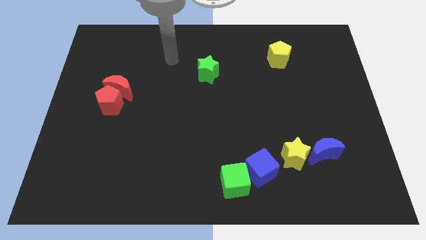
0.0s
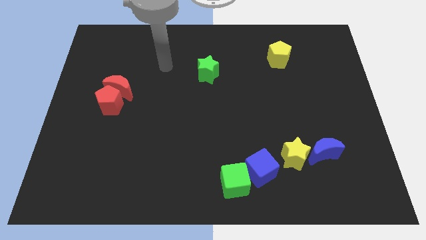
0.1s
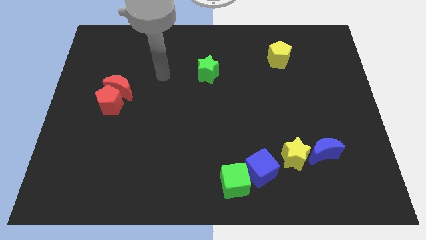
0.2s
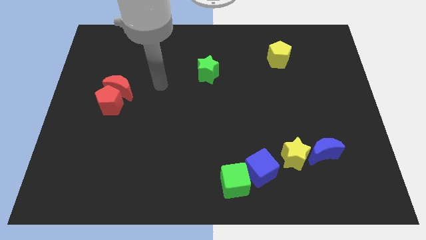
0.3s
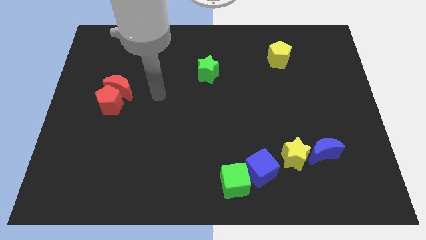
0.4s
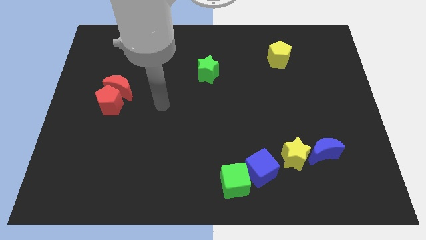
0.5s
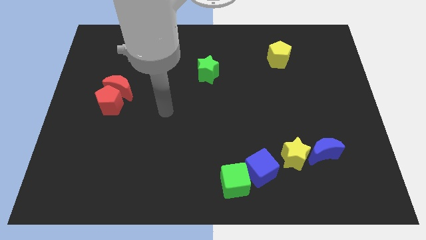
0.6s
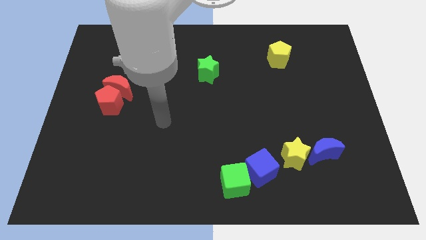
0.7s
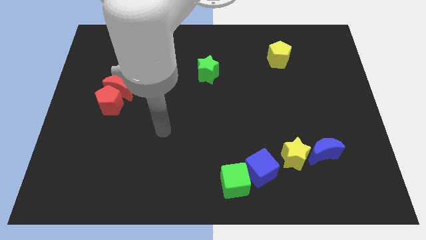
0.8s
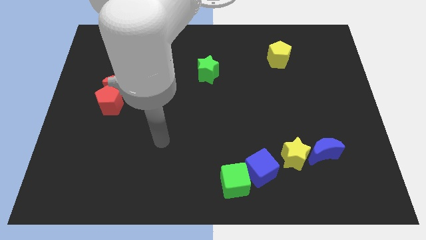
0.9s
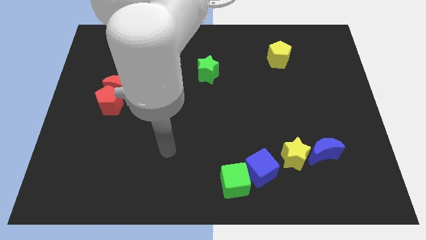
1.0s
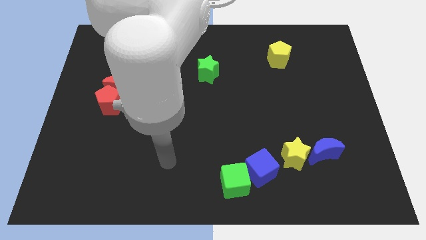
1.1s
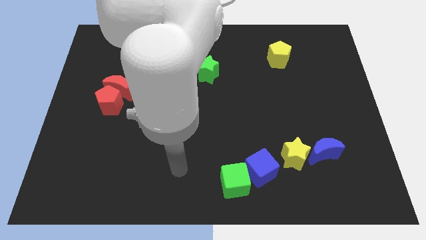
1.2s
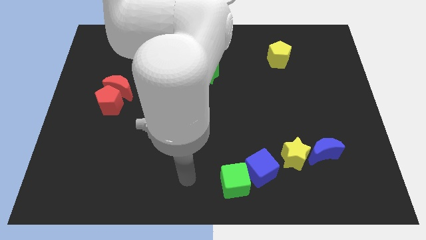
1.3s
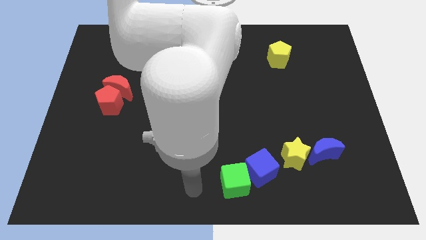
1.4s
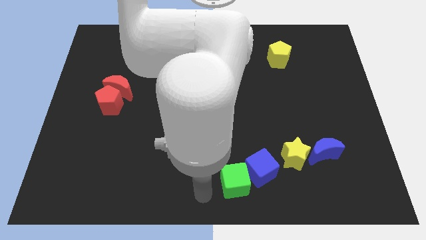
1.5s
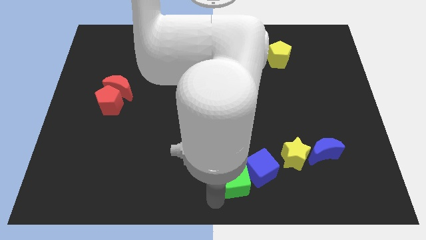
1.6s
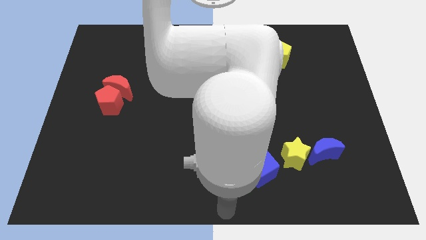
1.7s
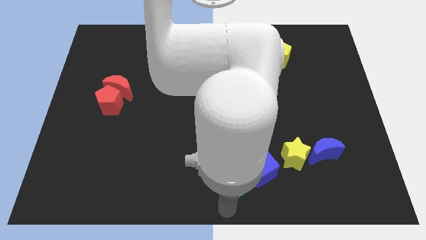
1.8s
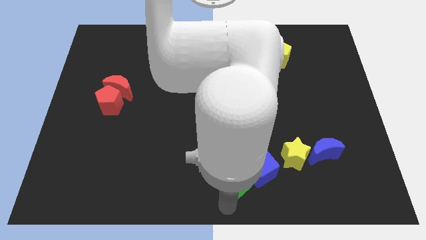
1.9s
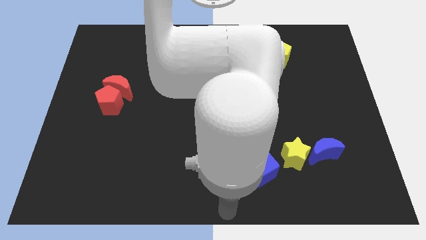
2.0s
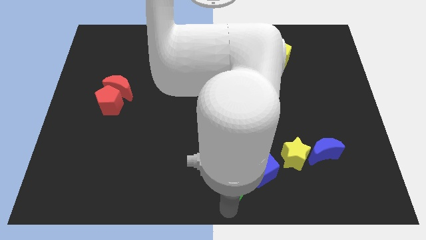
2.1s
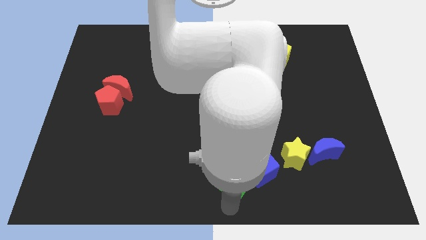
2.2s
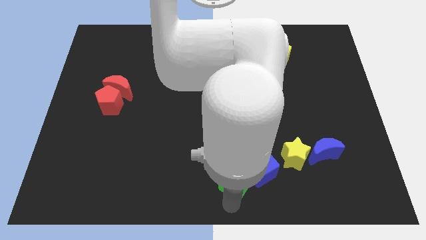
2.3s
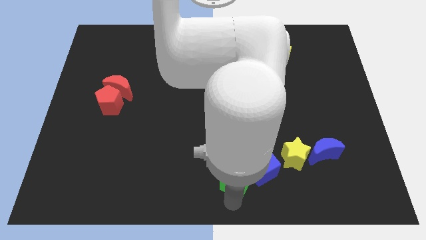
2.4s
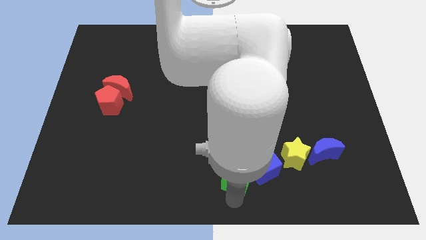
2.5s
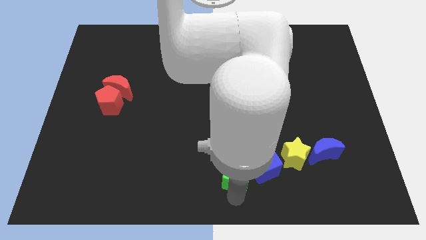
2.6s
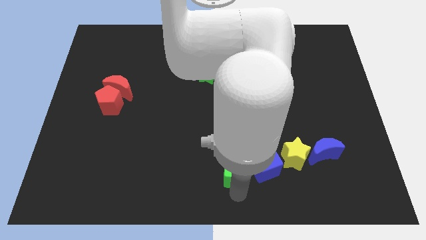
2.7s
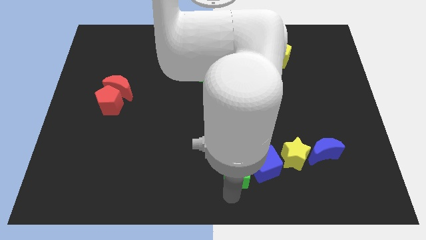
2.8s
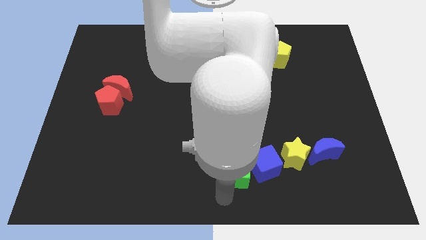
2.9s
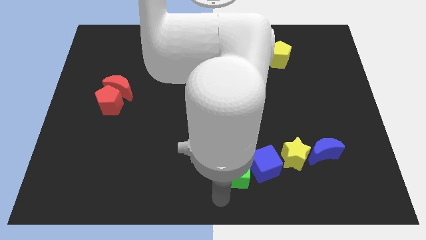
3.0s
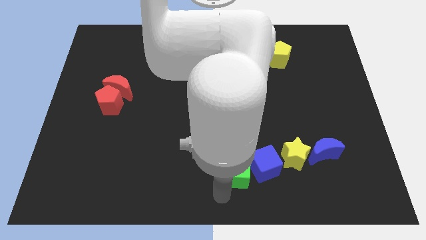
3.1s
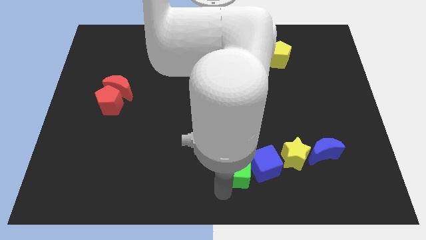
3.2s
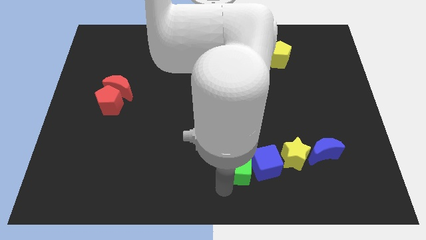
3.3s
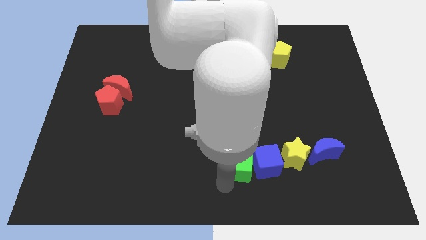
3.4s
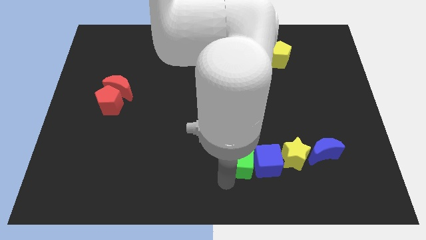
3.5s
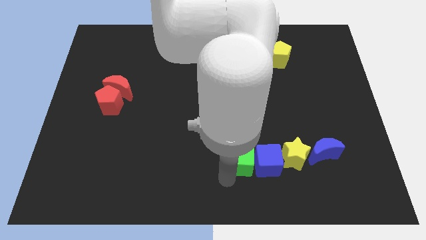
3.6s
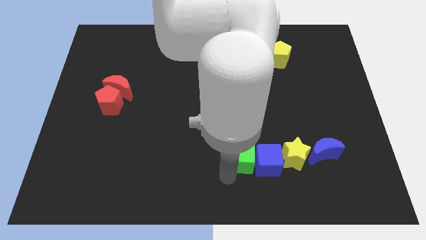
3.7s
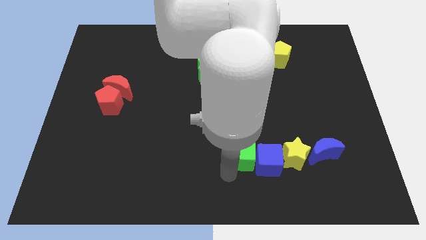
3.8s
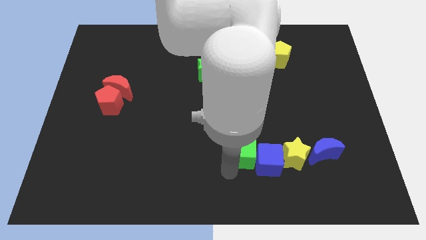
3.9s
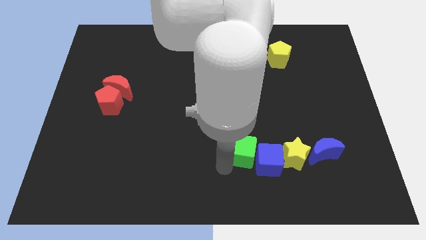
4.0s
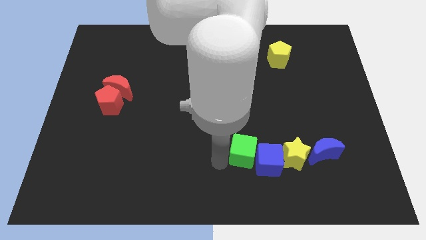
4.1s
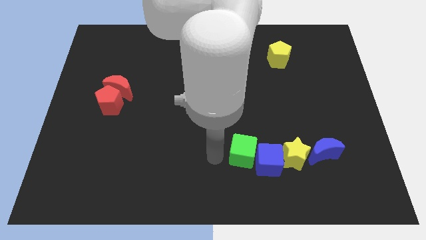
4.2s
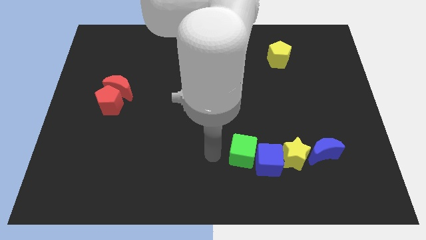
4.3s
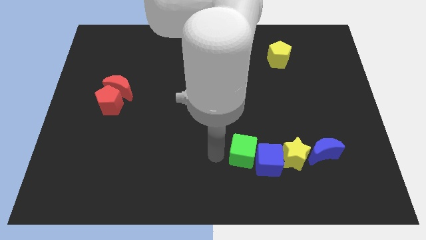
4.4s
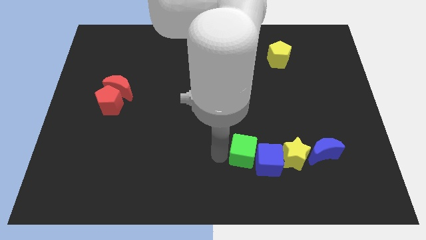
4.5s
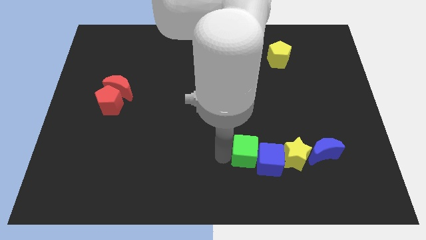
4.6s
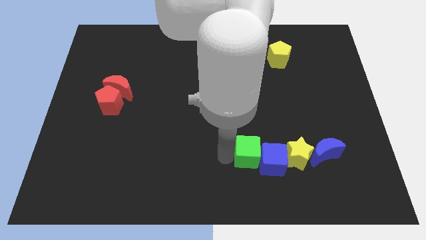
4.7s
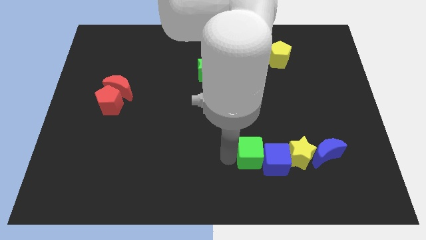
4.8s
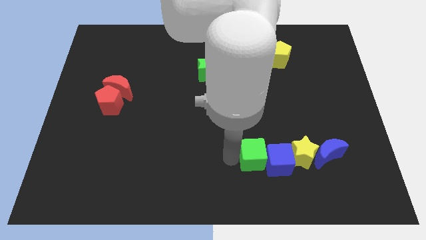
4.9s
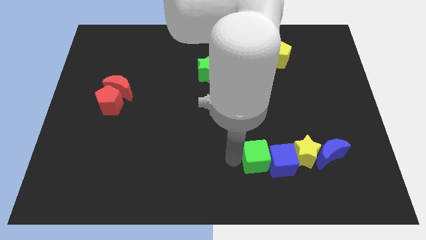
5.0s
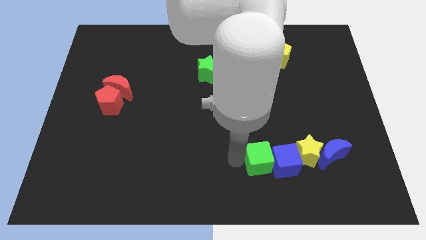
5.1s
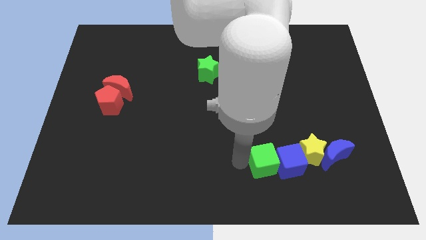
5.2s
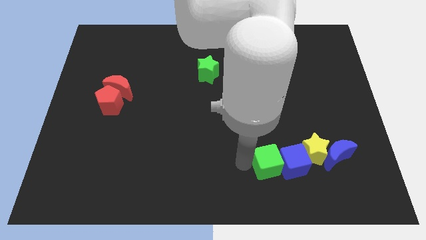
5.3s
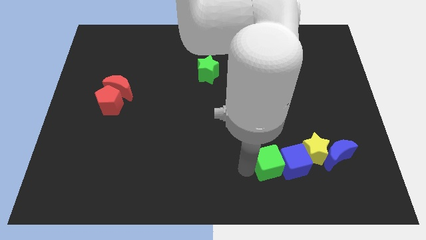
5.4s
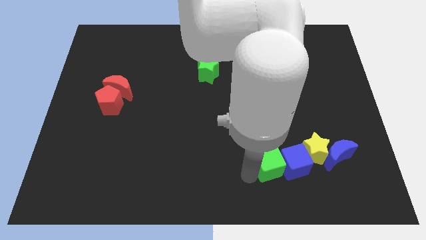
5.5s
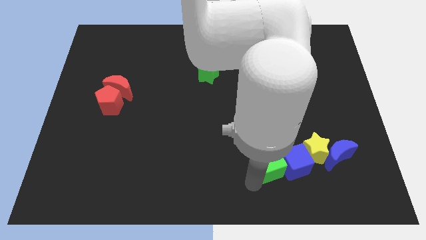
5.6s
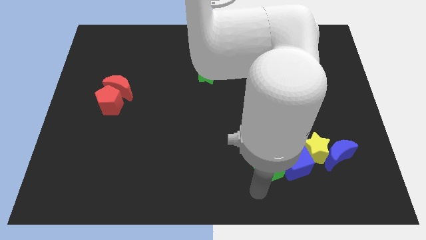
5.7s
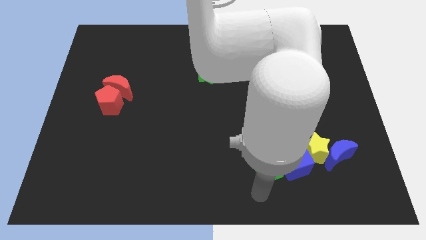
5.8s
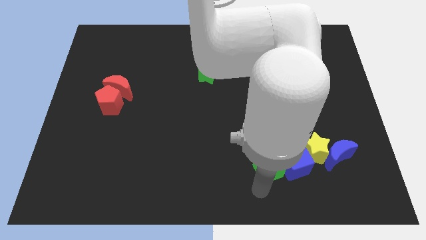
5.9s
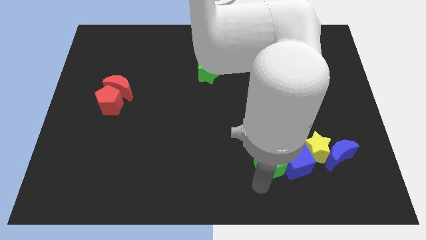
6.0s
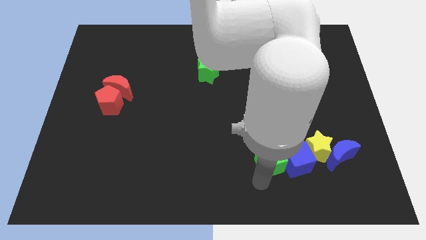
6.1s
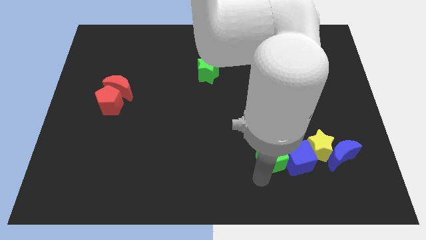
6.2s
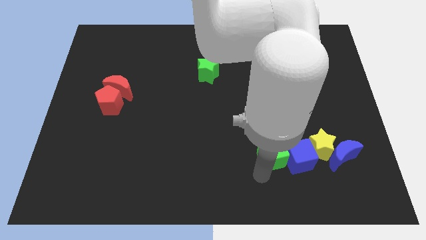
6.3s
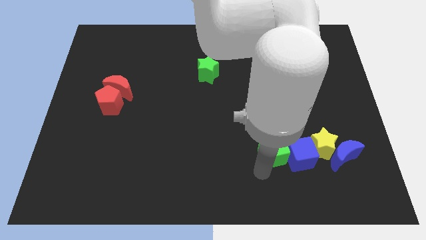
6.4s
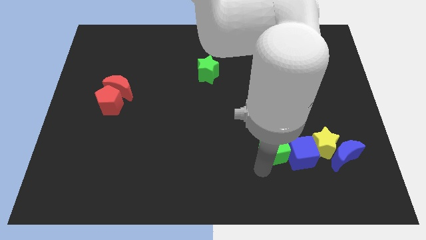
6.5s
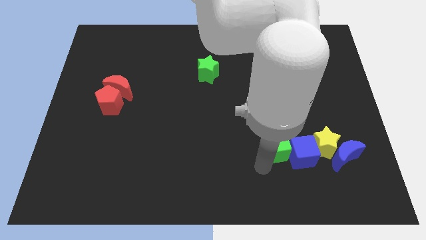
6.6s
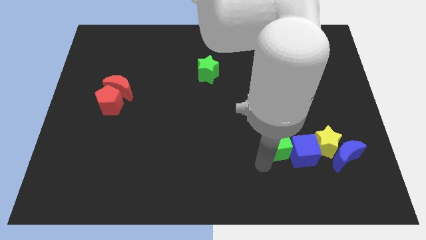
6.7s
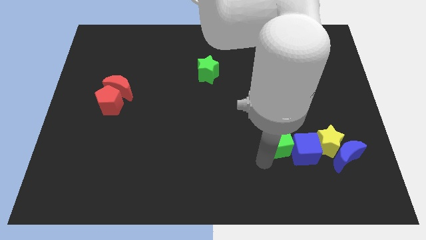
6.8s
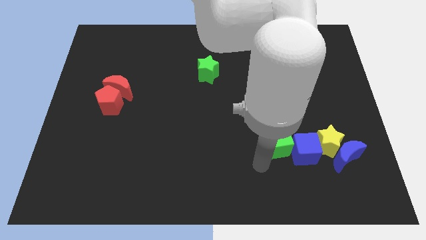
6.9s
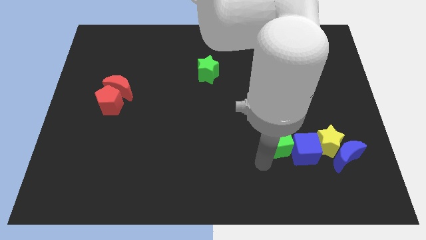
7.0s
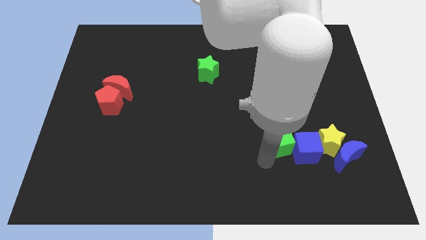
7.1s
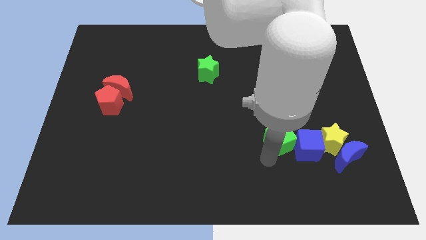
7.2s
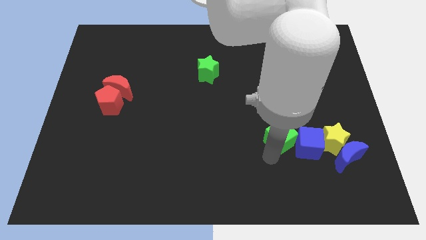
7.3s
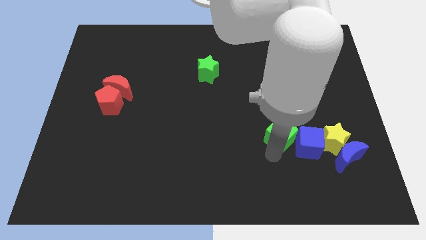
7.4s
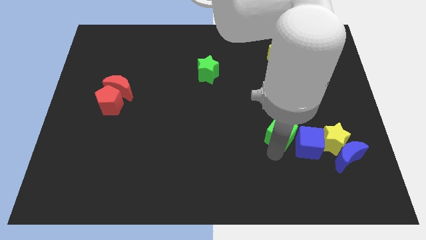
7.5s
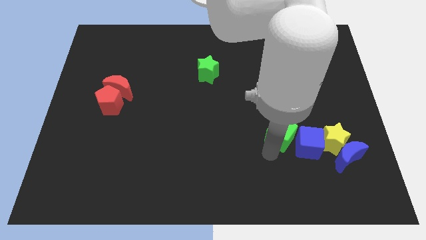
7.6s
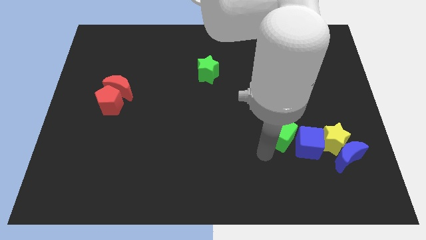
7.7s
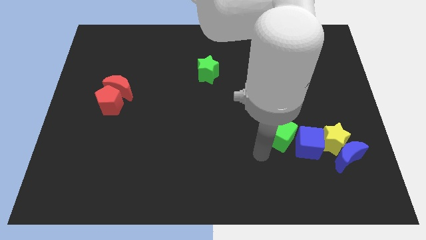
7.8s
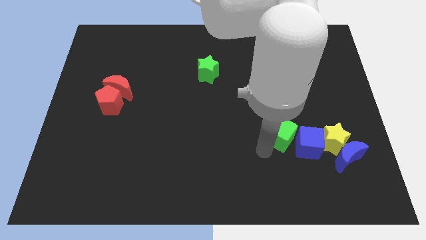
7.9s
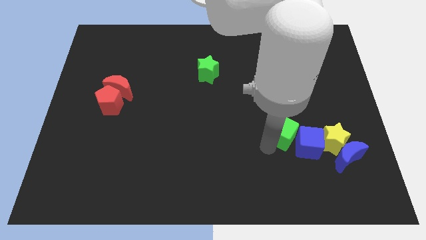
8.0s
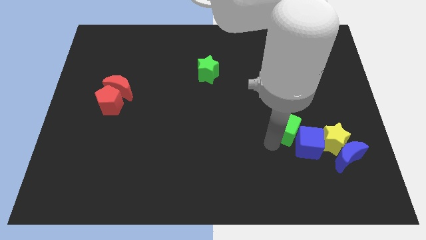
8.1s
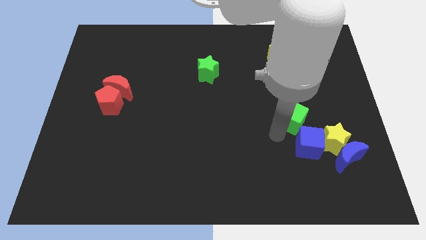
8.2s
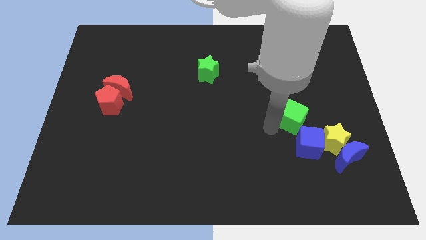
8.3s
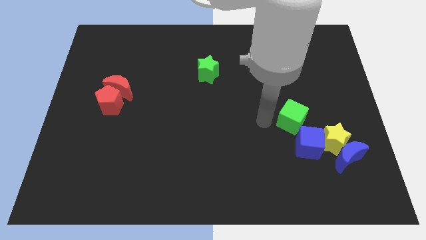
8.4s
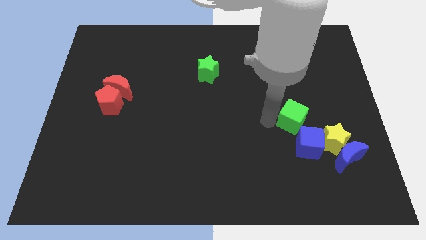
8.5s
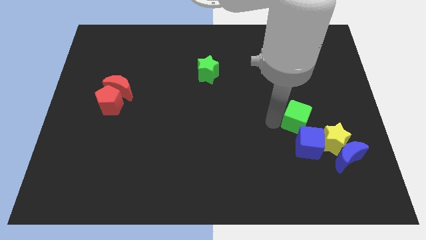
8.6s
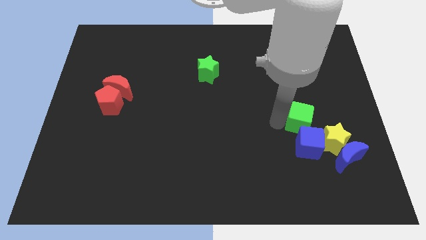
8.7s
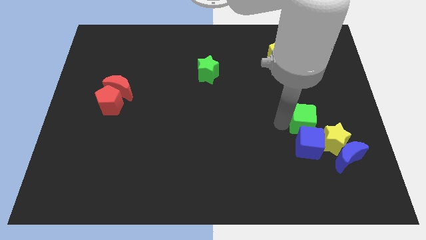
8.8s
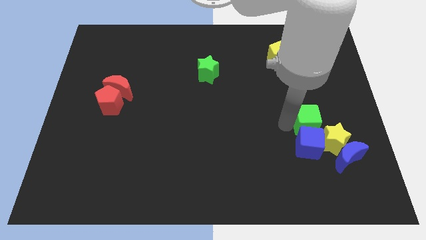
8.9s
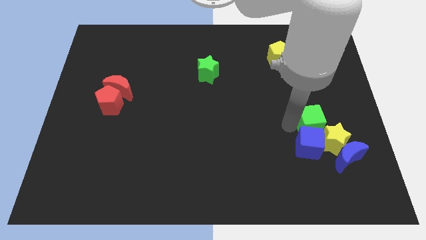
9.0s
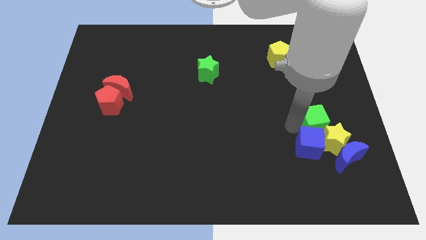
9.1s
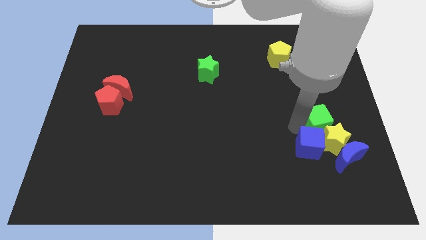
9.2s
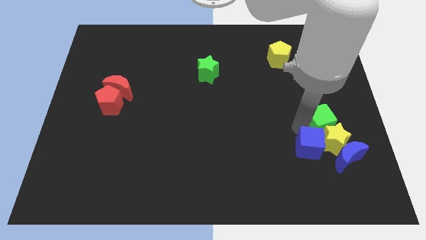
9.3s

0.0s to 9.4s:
move the green cube to the top side of the blue moon
